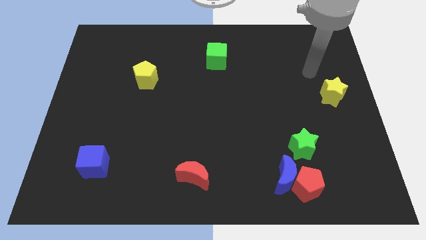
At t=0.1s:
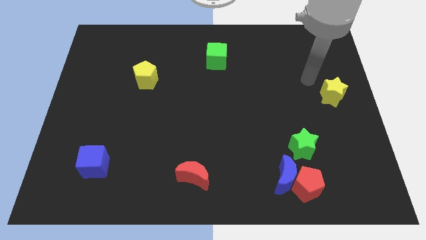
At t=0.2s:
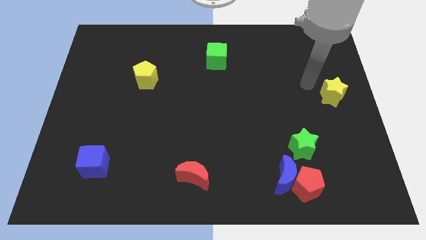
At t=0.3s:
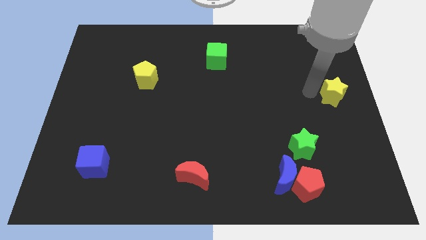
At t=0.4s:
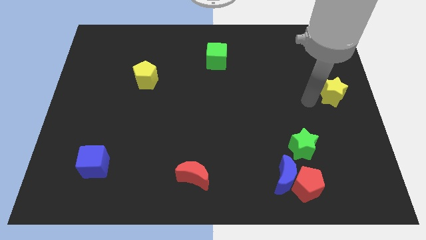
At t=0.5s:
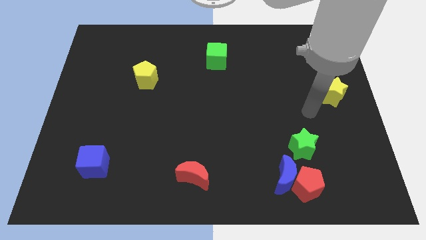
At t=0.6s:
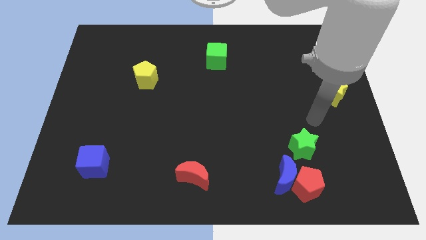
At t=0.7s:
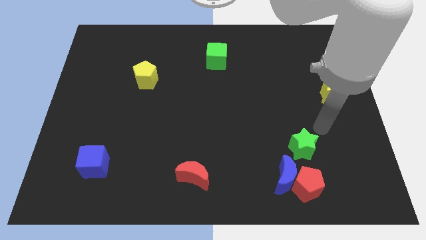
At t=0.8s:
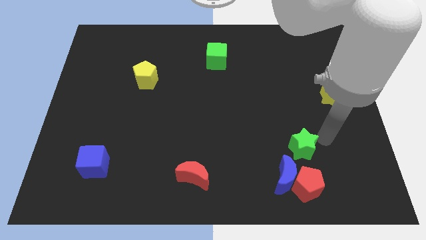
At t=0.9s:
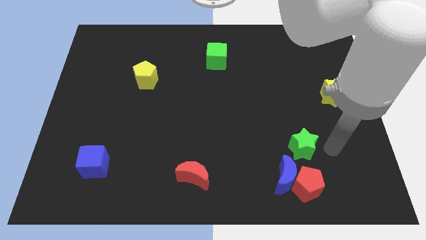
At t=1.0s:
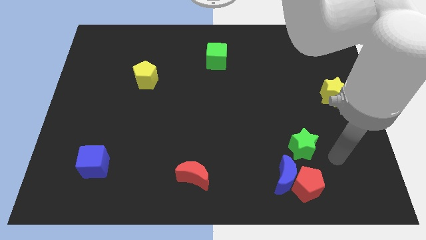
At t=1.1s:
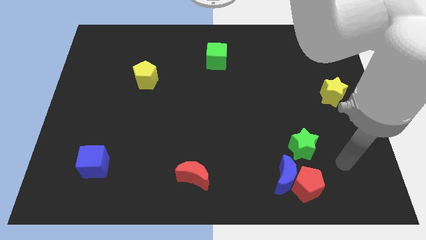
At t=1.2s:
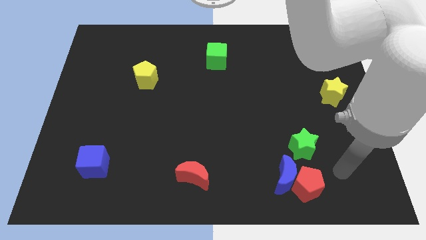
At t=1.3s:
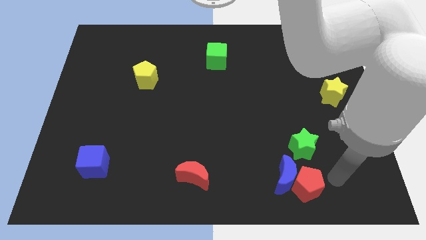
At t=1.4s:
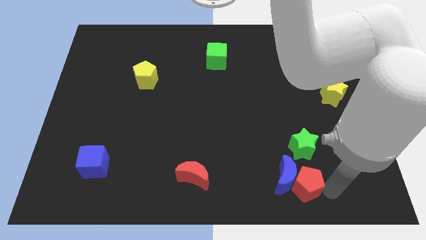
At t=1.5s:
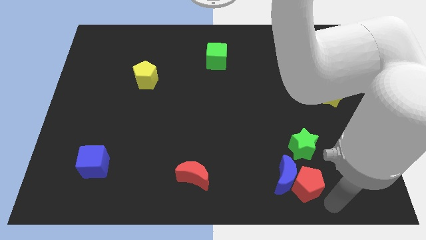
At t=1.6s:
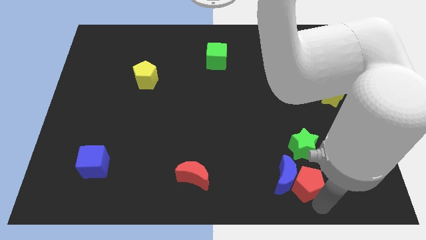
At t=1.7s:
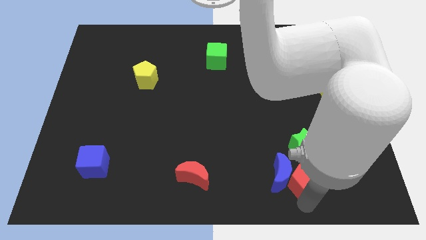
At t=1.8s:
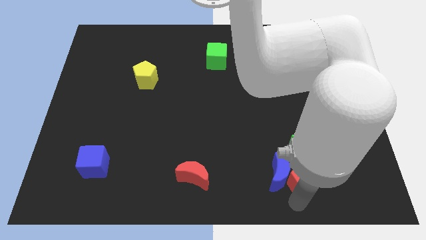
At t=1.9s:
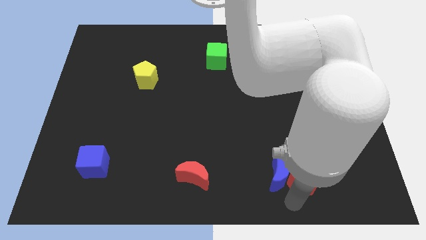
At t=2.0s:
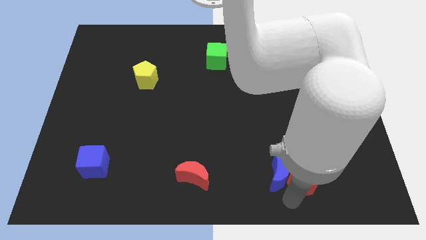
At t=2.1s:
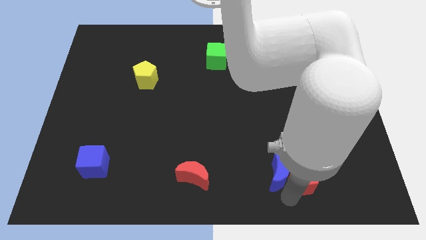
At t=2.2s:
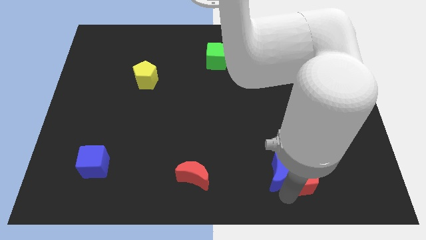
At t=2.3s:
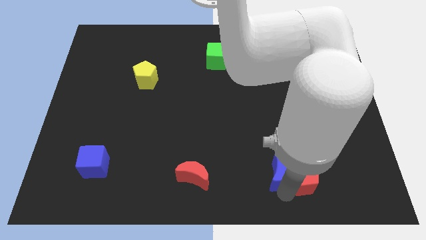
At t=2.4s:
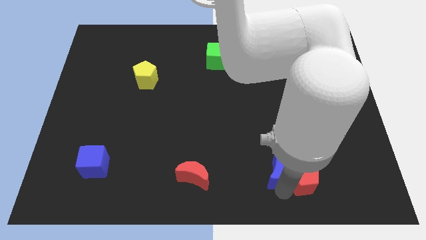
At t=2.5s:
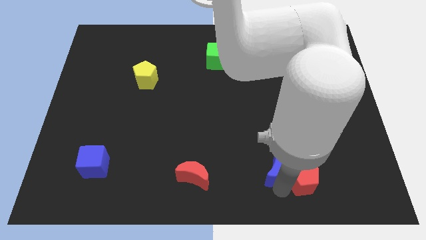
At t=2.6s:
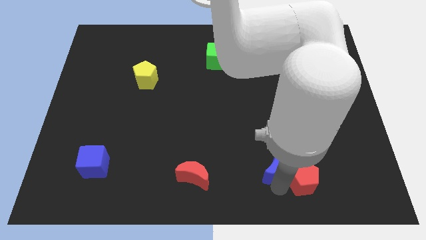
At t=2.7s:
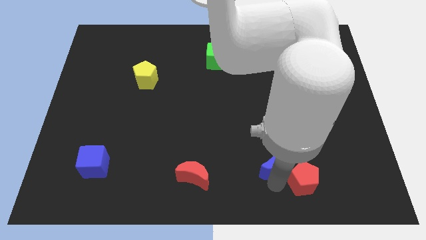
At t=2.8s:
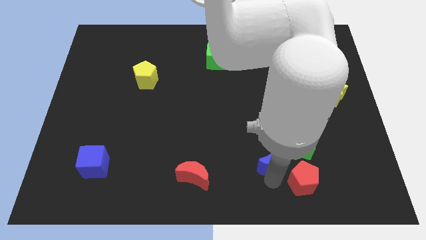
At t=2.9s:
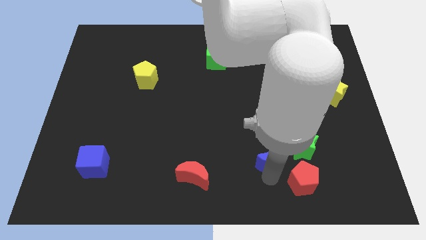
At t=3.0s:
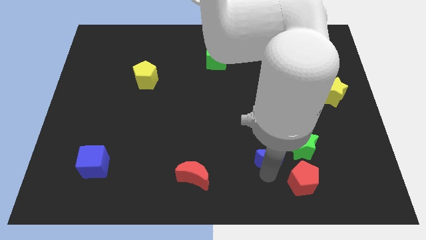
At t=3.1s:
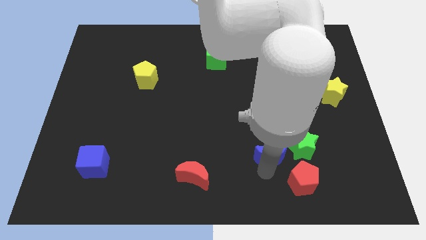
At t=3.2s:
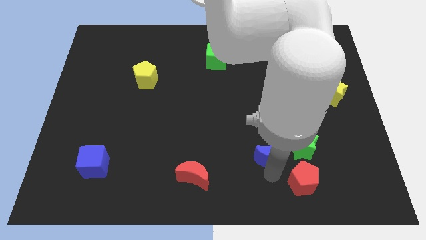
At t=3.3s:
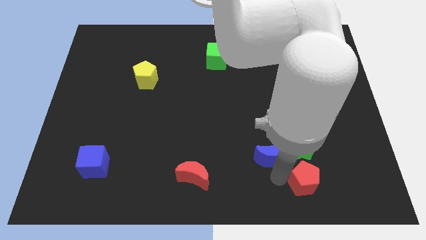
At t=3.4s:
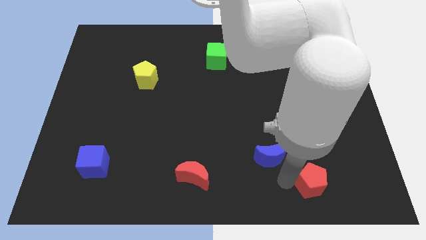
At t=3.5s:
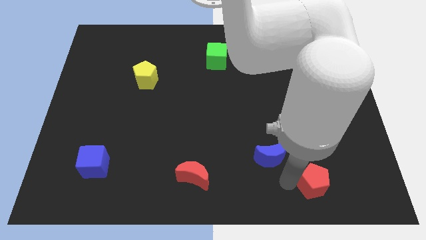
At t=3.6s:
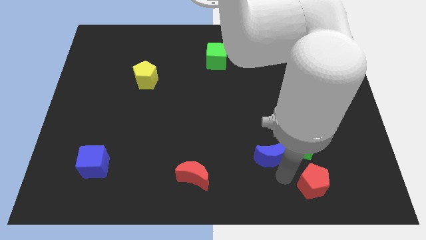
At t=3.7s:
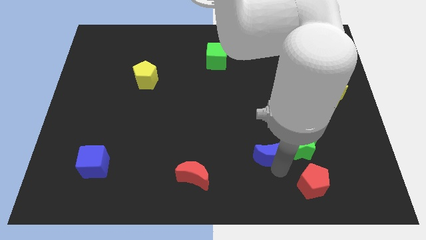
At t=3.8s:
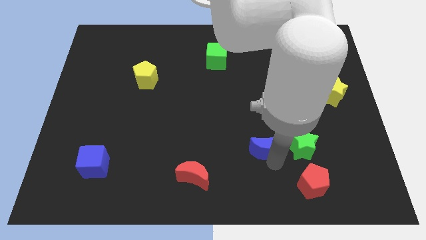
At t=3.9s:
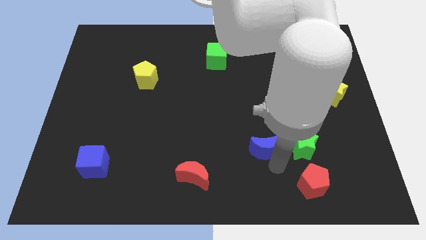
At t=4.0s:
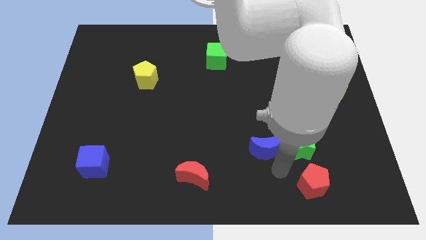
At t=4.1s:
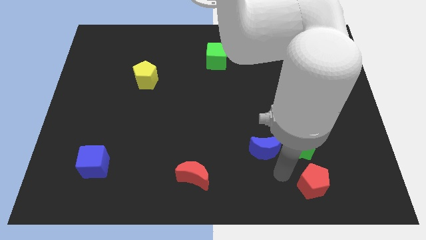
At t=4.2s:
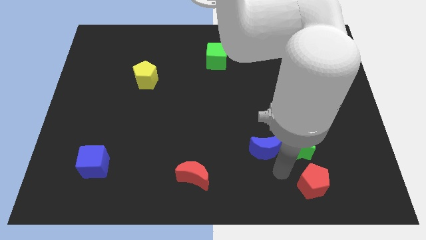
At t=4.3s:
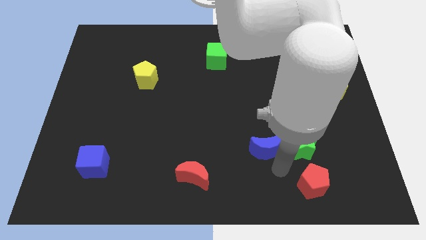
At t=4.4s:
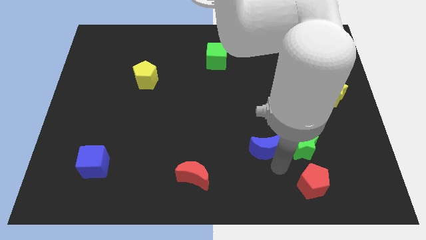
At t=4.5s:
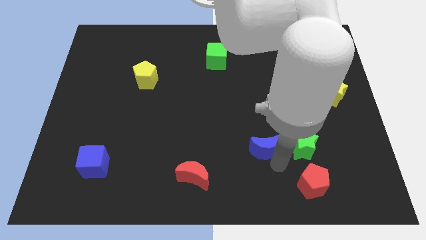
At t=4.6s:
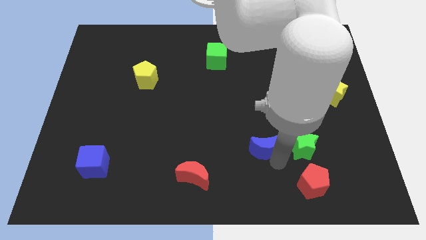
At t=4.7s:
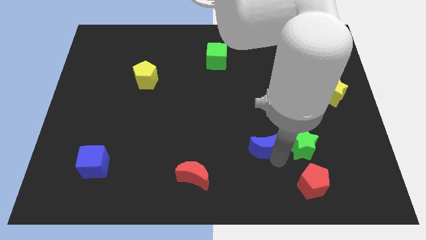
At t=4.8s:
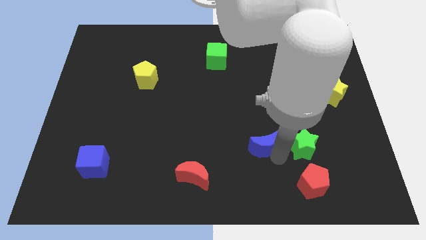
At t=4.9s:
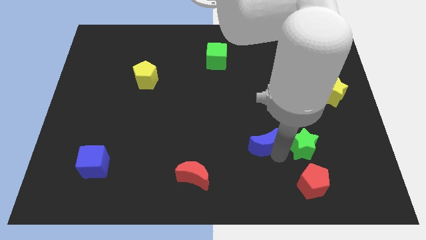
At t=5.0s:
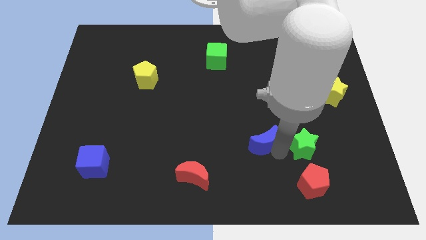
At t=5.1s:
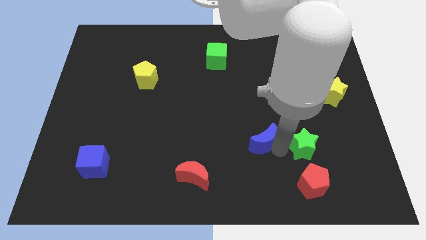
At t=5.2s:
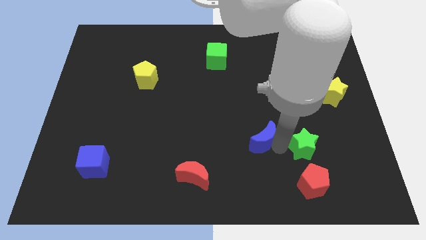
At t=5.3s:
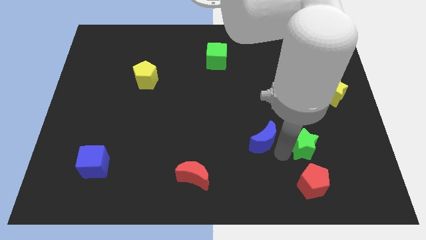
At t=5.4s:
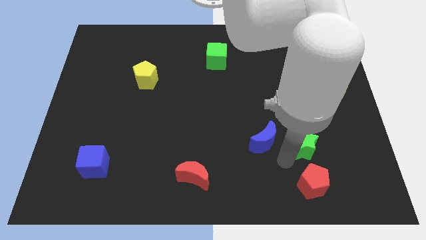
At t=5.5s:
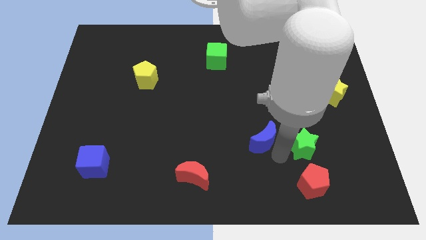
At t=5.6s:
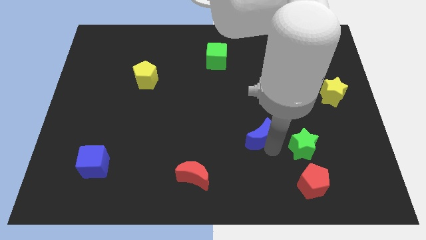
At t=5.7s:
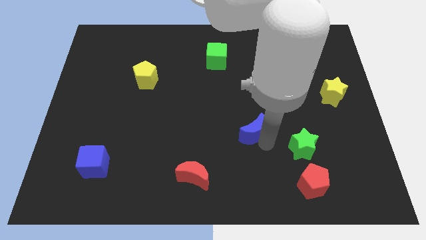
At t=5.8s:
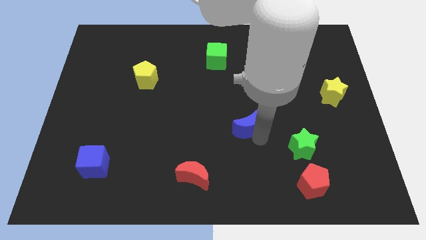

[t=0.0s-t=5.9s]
put the blue moon to the middle

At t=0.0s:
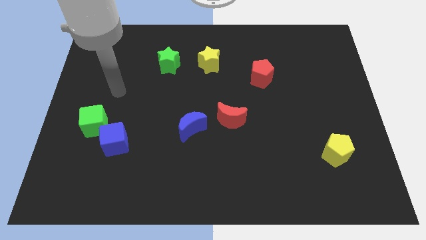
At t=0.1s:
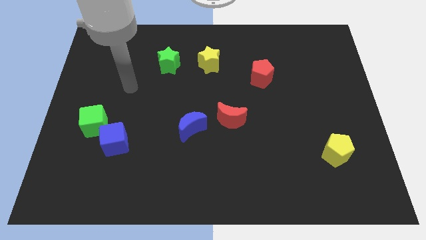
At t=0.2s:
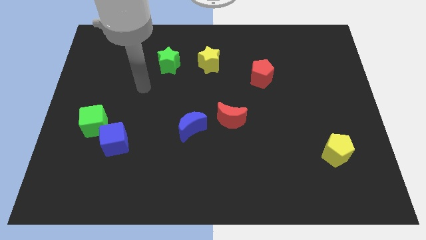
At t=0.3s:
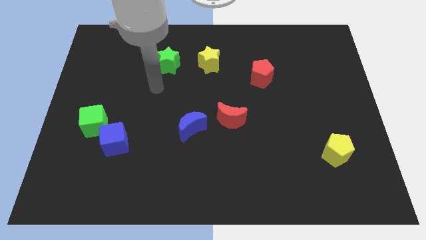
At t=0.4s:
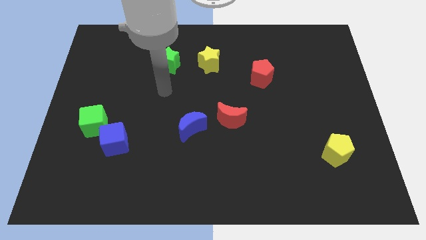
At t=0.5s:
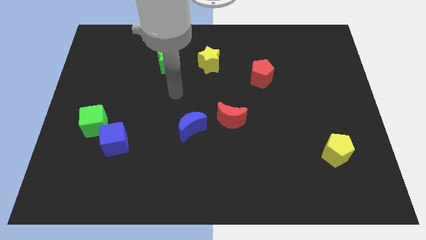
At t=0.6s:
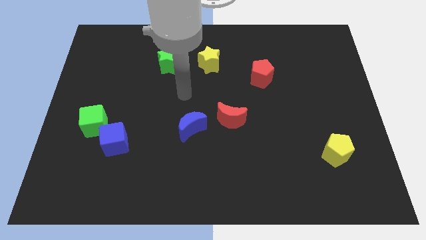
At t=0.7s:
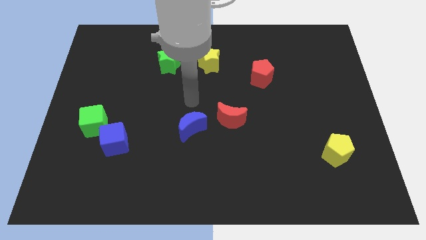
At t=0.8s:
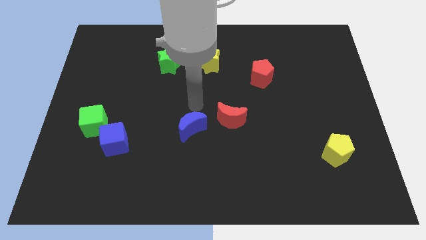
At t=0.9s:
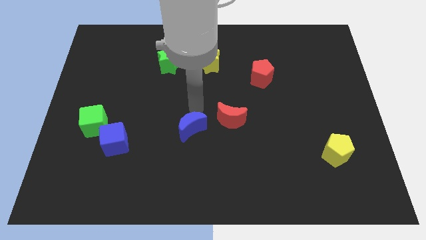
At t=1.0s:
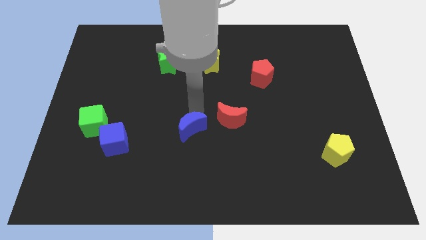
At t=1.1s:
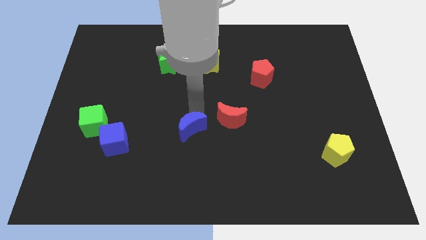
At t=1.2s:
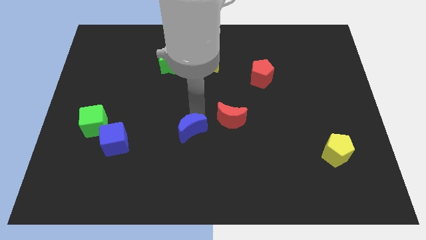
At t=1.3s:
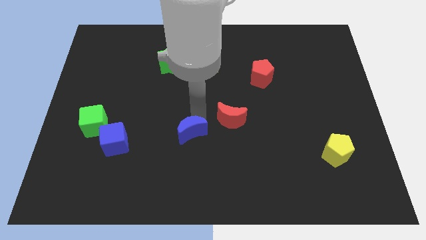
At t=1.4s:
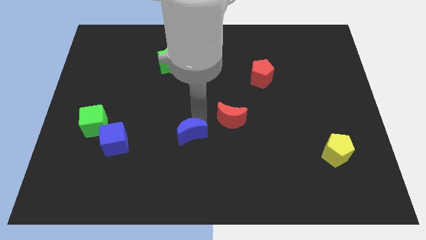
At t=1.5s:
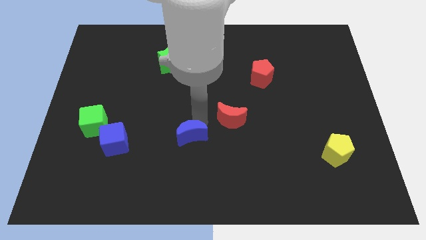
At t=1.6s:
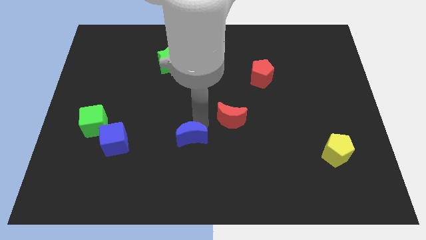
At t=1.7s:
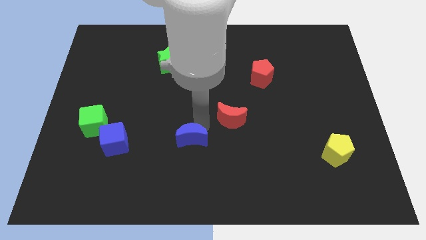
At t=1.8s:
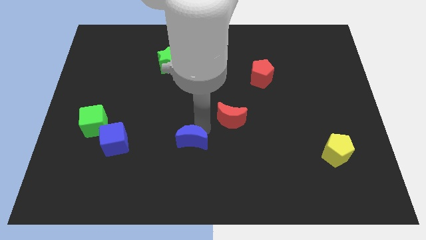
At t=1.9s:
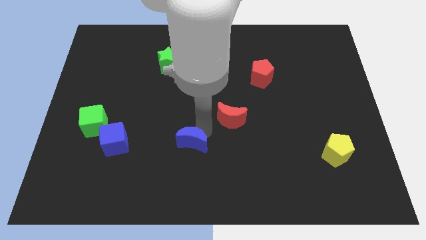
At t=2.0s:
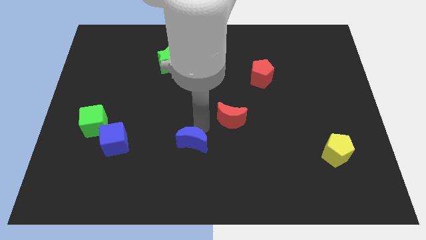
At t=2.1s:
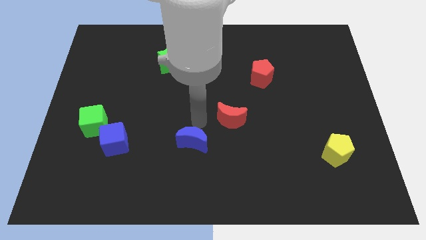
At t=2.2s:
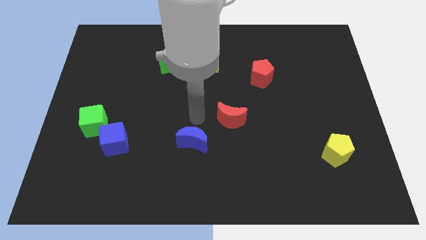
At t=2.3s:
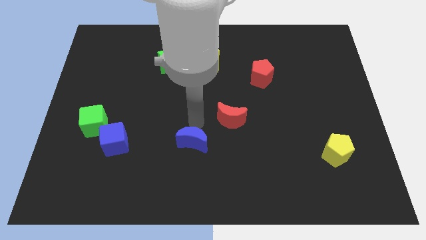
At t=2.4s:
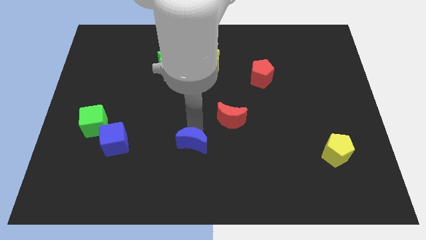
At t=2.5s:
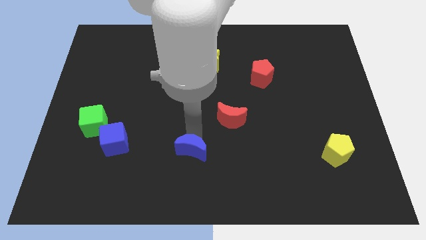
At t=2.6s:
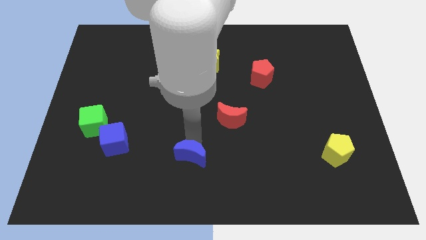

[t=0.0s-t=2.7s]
put the blue moon to the bottom
